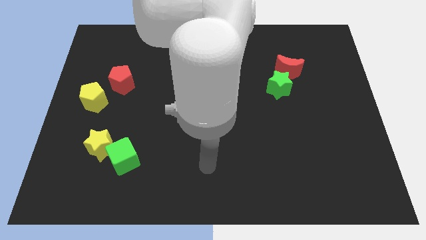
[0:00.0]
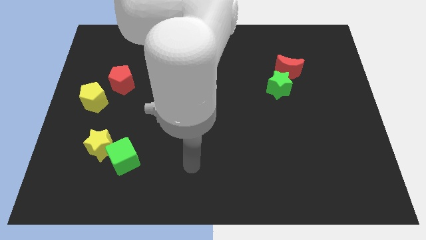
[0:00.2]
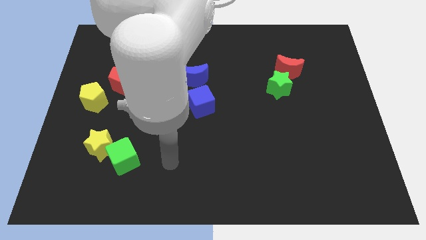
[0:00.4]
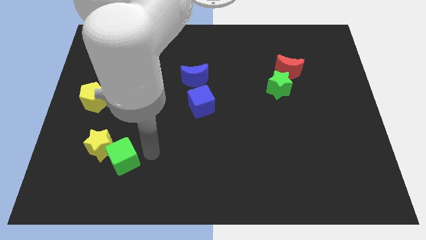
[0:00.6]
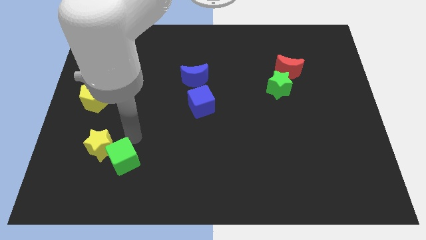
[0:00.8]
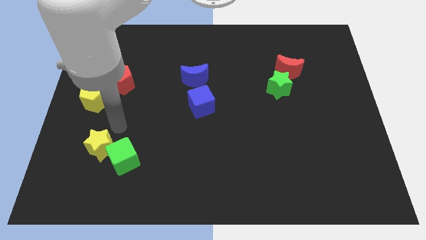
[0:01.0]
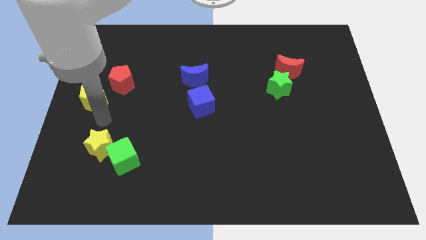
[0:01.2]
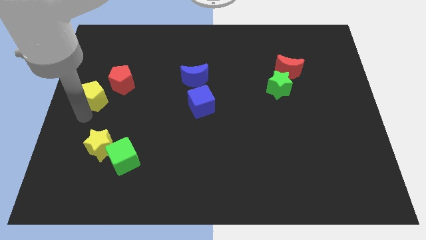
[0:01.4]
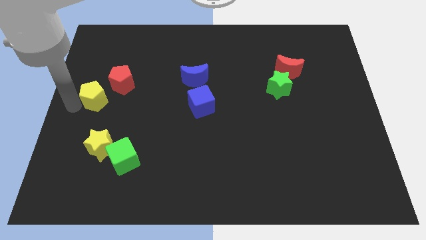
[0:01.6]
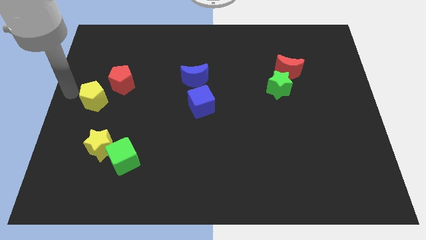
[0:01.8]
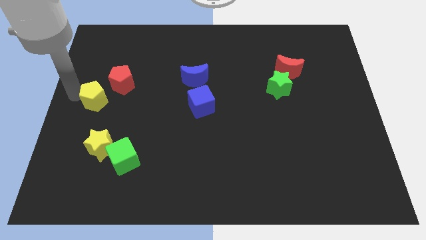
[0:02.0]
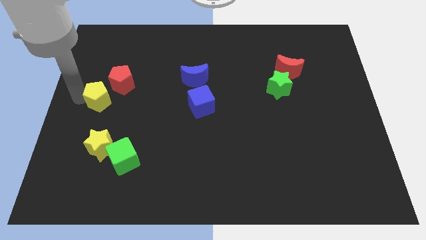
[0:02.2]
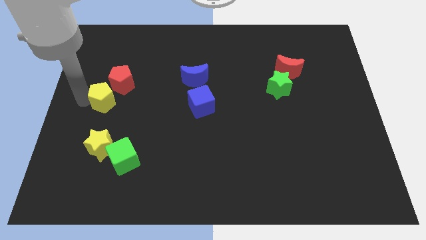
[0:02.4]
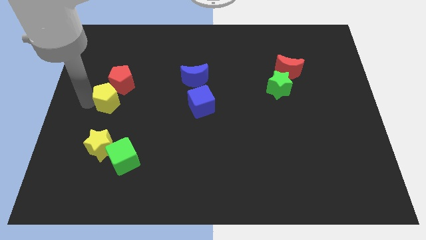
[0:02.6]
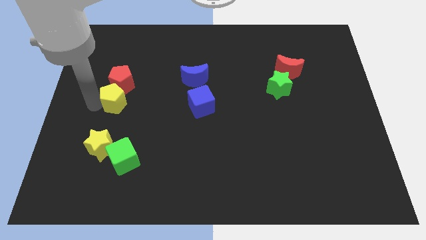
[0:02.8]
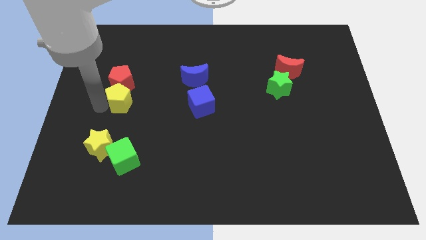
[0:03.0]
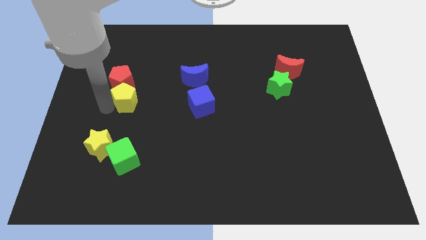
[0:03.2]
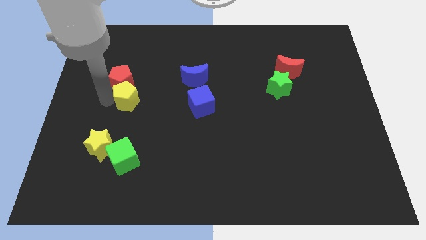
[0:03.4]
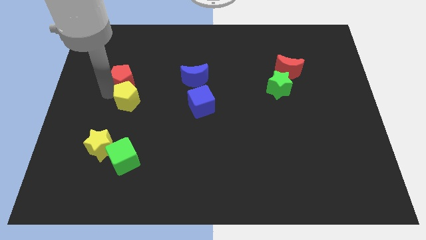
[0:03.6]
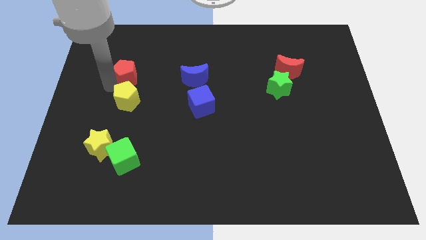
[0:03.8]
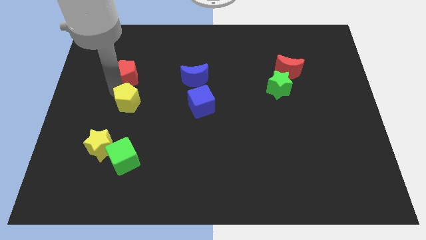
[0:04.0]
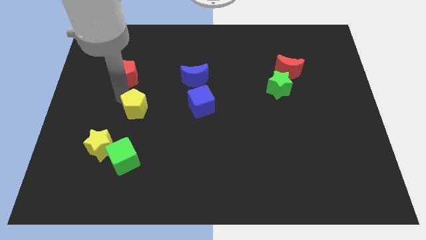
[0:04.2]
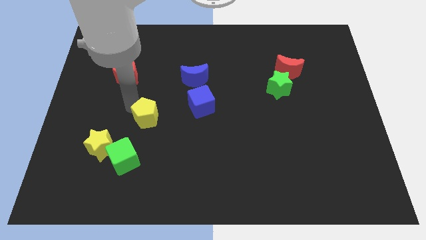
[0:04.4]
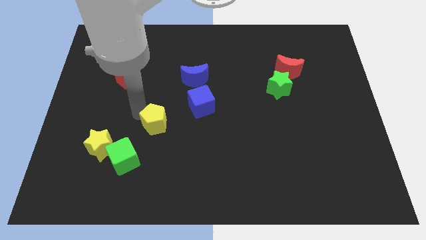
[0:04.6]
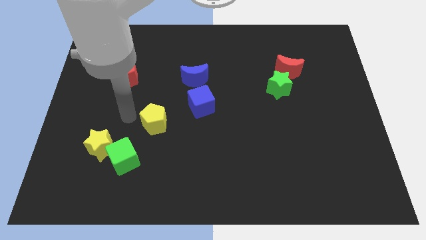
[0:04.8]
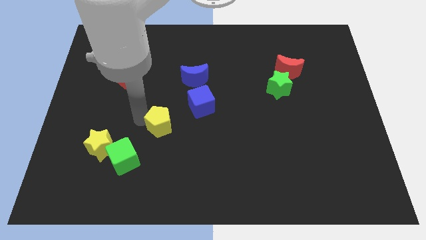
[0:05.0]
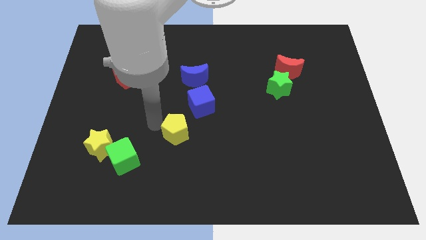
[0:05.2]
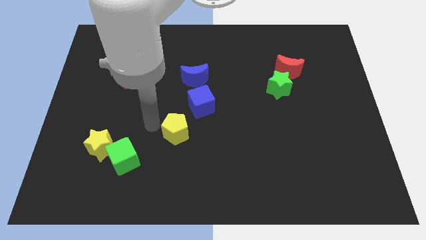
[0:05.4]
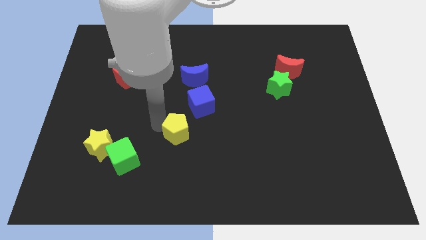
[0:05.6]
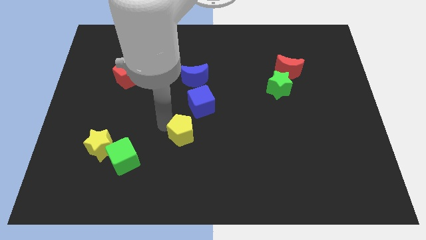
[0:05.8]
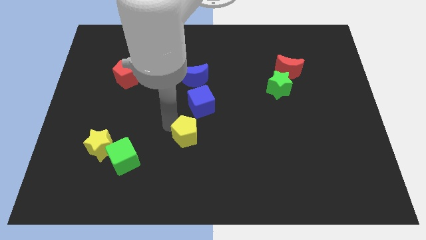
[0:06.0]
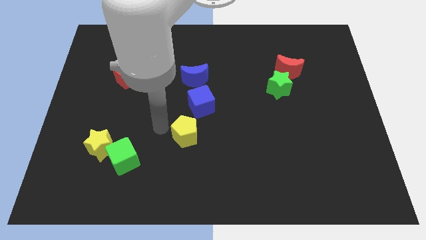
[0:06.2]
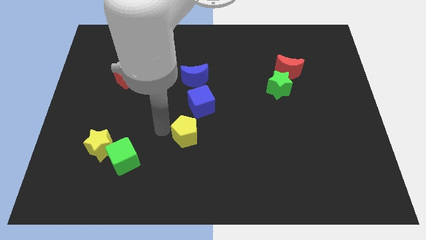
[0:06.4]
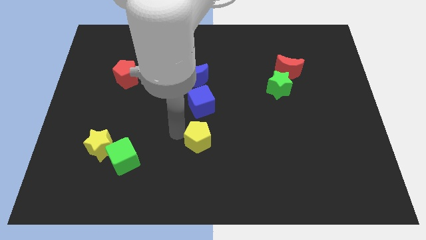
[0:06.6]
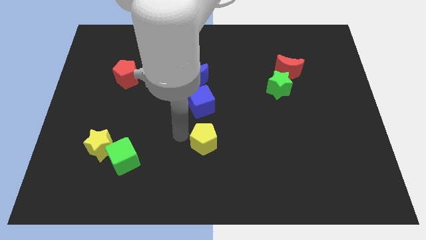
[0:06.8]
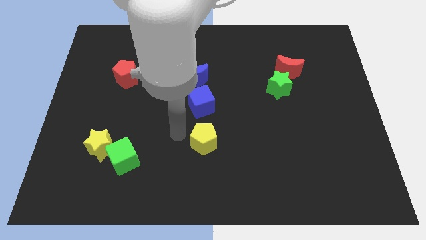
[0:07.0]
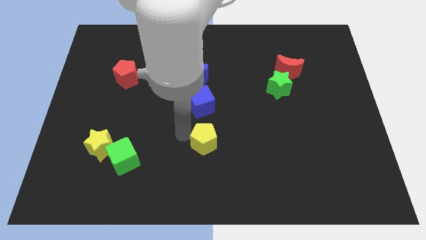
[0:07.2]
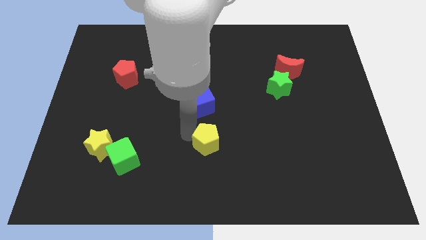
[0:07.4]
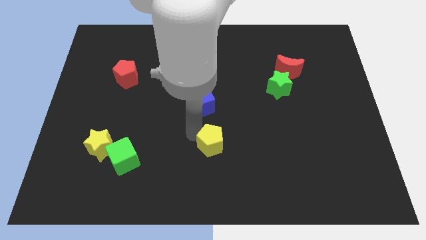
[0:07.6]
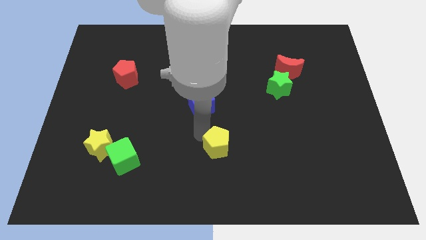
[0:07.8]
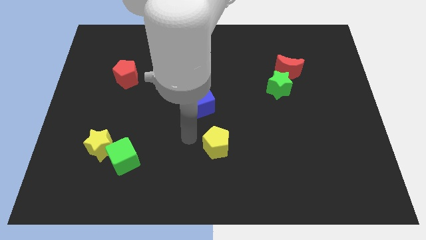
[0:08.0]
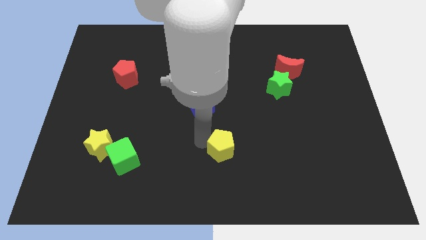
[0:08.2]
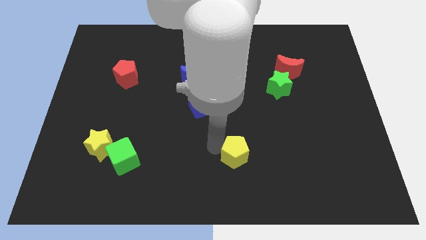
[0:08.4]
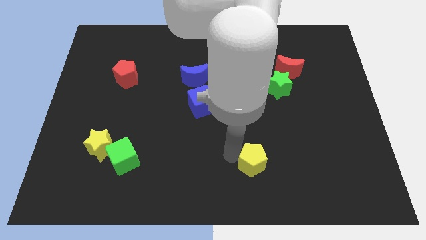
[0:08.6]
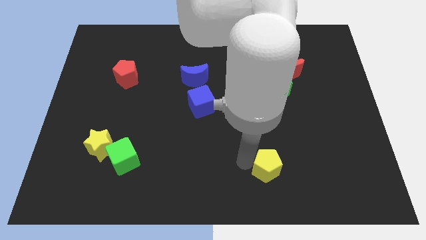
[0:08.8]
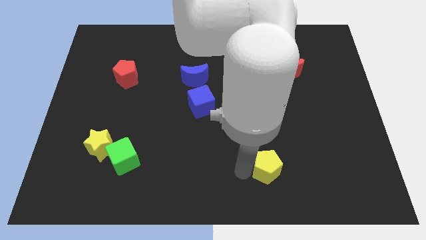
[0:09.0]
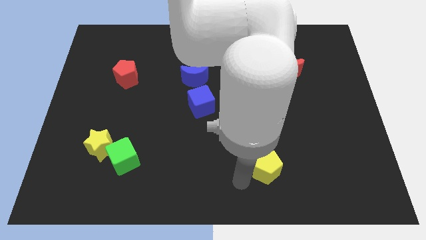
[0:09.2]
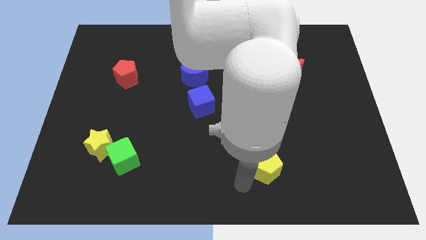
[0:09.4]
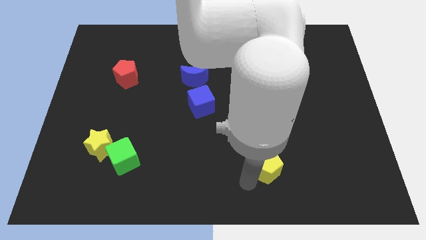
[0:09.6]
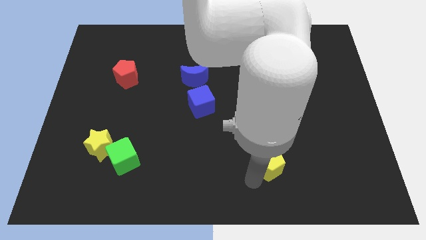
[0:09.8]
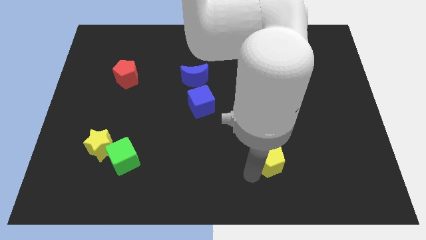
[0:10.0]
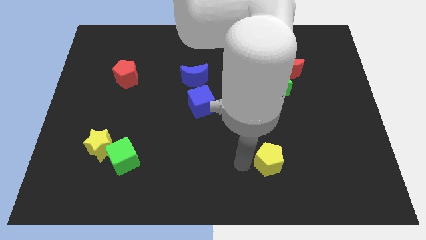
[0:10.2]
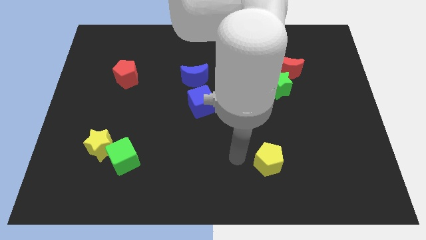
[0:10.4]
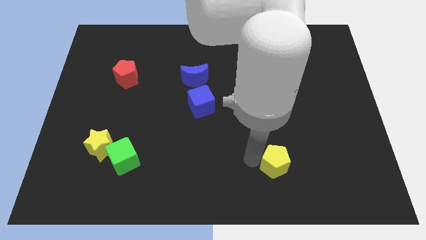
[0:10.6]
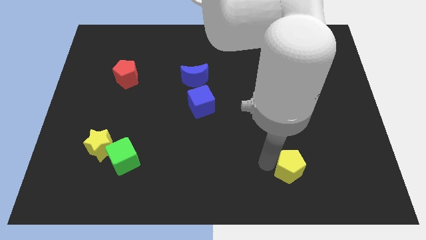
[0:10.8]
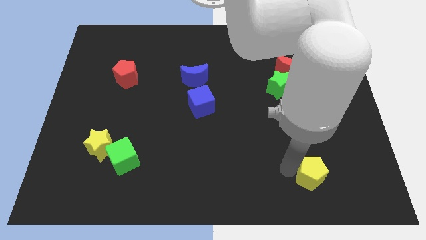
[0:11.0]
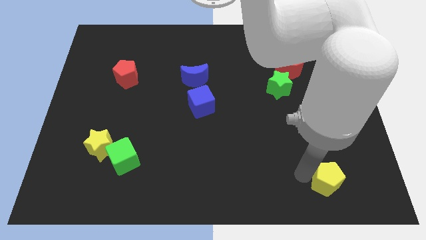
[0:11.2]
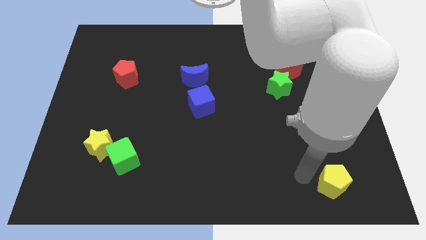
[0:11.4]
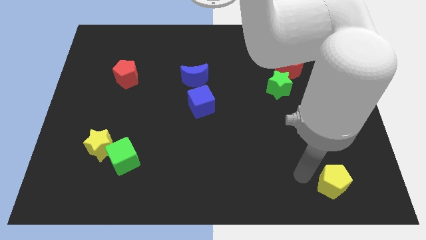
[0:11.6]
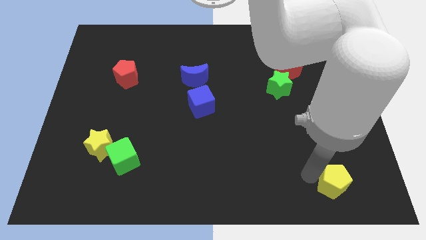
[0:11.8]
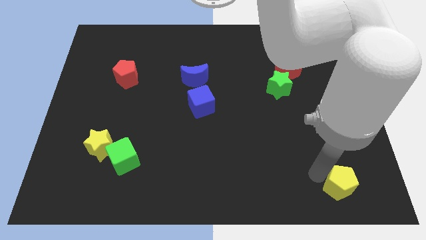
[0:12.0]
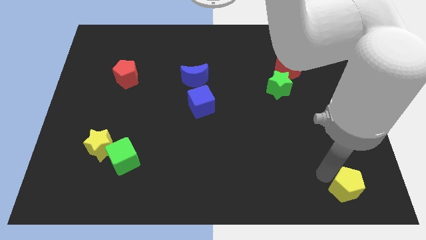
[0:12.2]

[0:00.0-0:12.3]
put the yellow pentagon to the lower right corner
